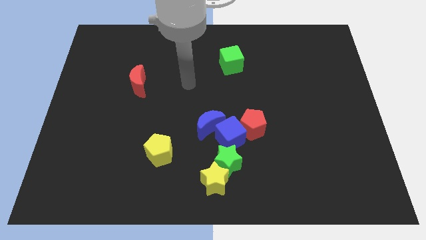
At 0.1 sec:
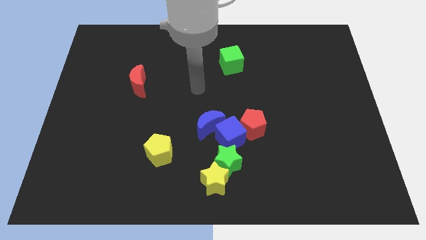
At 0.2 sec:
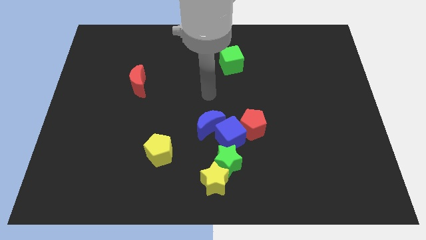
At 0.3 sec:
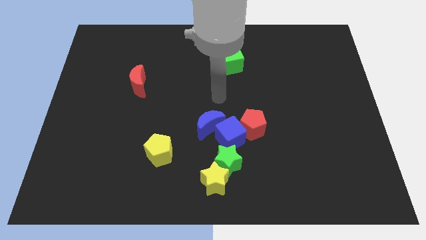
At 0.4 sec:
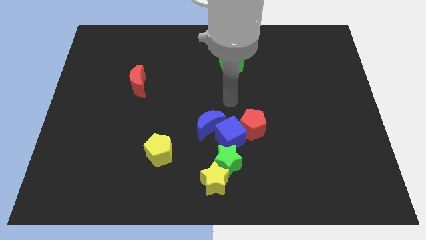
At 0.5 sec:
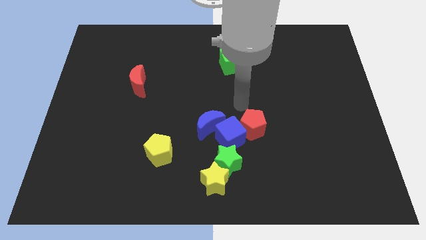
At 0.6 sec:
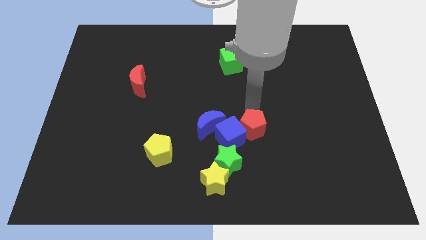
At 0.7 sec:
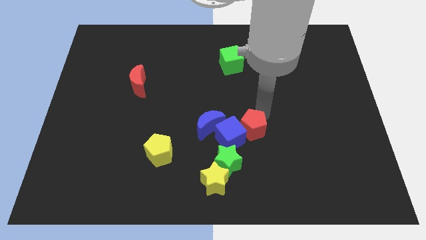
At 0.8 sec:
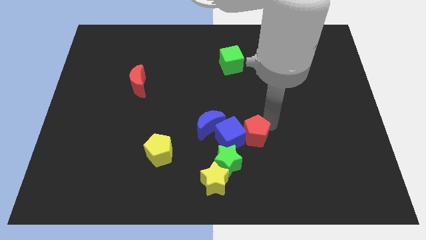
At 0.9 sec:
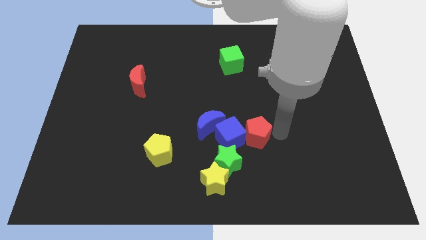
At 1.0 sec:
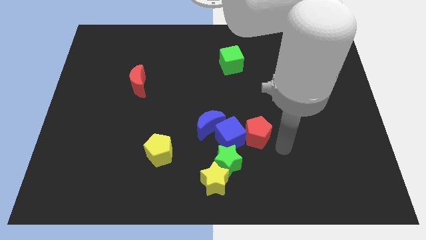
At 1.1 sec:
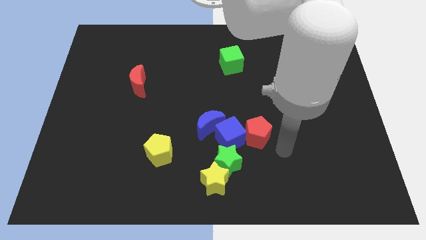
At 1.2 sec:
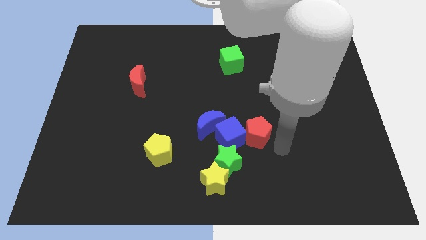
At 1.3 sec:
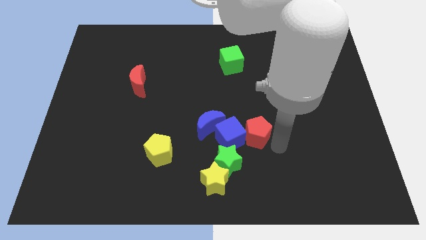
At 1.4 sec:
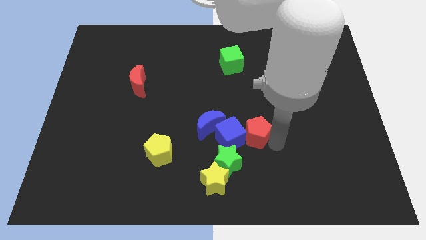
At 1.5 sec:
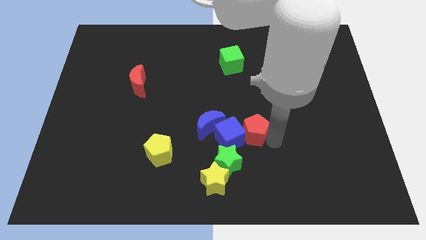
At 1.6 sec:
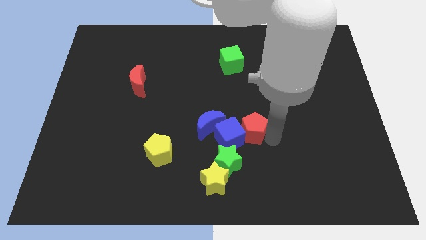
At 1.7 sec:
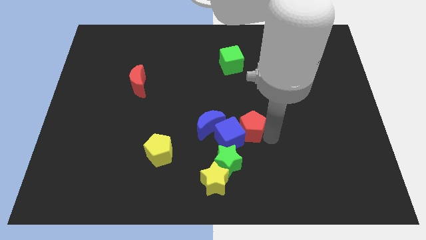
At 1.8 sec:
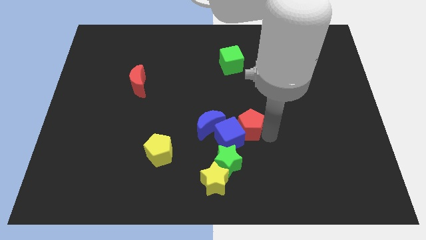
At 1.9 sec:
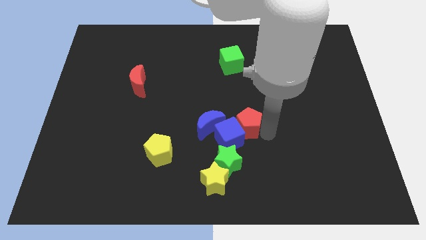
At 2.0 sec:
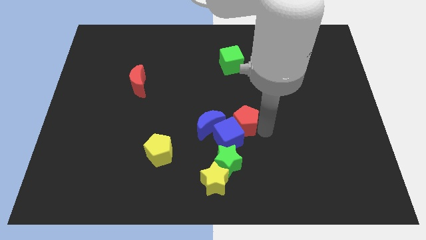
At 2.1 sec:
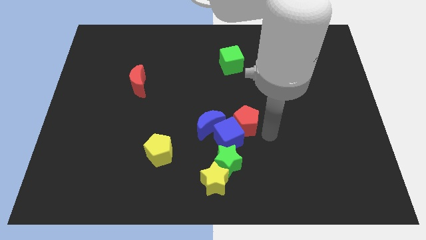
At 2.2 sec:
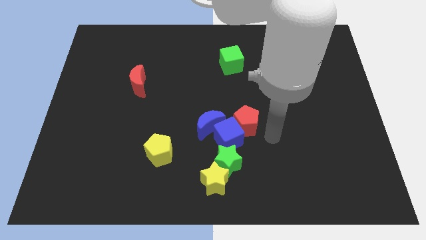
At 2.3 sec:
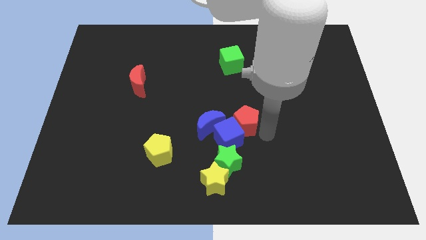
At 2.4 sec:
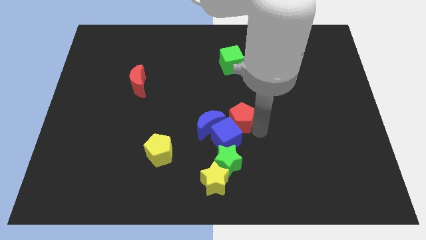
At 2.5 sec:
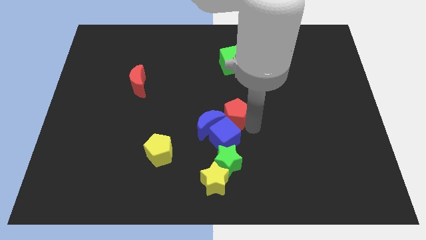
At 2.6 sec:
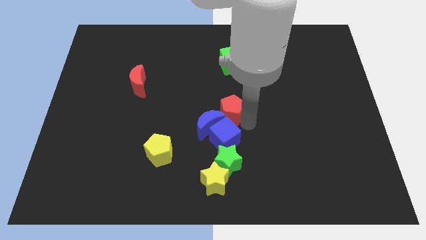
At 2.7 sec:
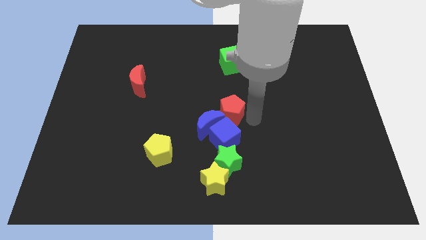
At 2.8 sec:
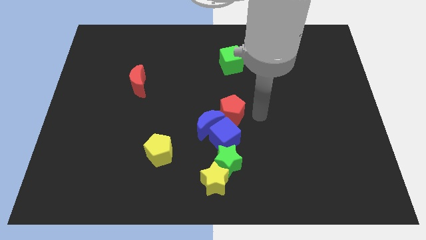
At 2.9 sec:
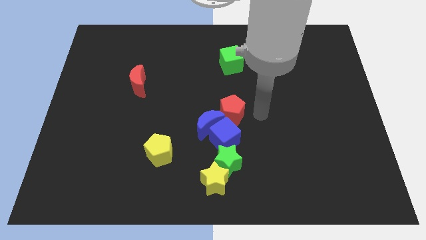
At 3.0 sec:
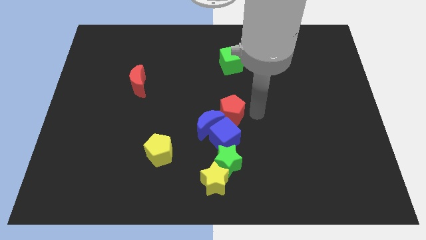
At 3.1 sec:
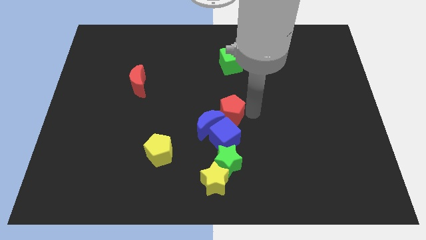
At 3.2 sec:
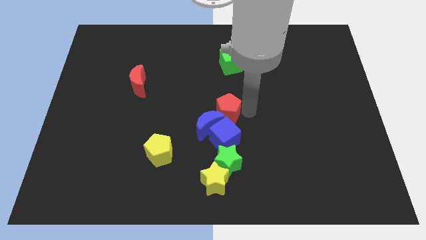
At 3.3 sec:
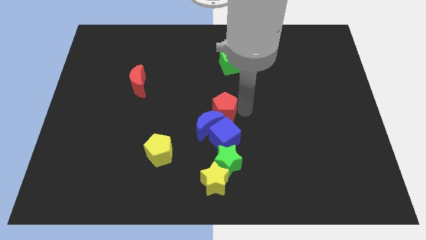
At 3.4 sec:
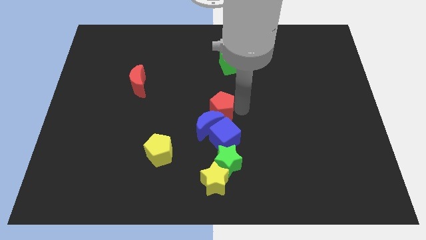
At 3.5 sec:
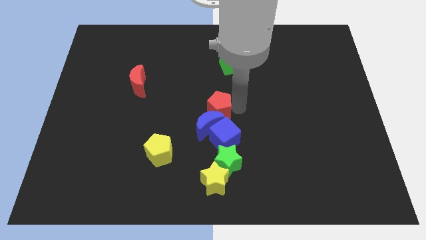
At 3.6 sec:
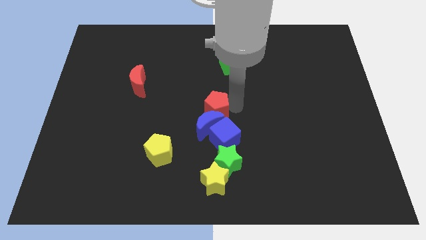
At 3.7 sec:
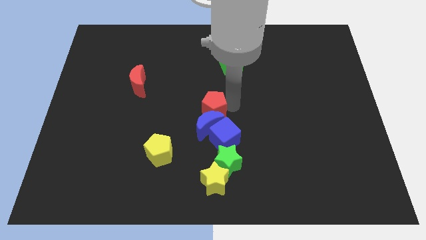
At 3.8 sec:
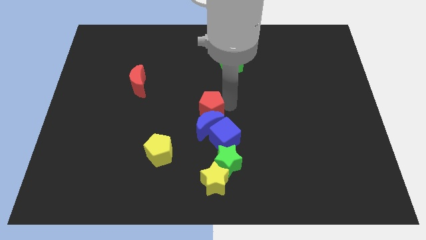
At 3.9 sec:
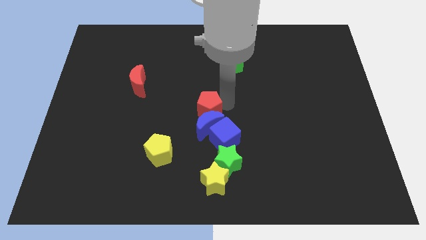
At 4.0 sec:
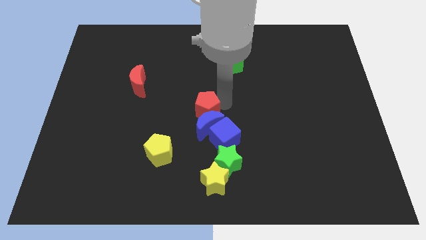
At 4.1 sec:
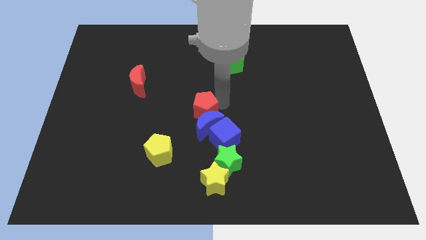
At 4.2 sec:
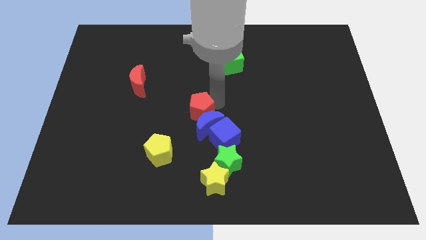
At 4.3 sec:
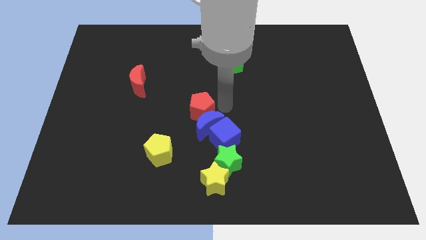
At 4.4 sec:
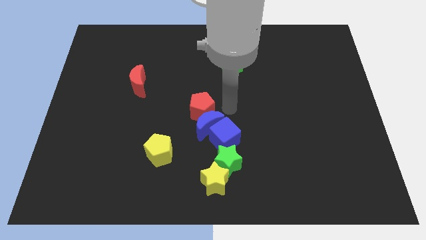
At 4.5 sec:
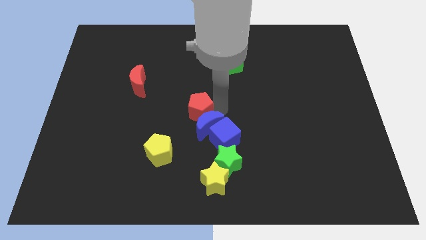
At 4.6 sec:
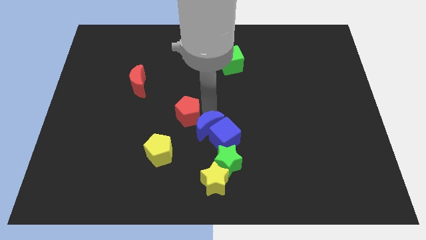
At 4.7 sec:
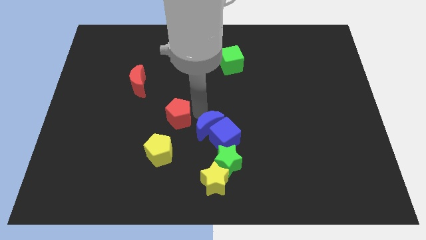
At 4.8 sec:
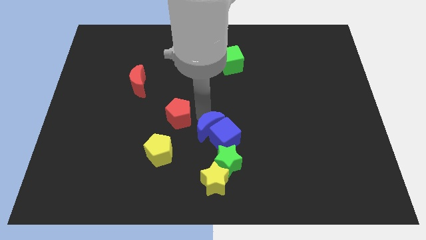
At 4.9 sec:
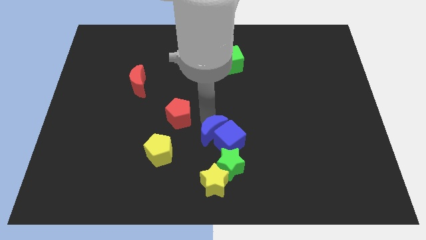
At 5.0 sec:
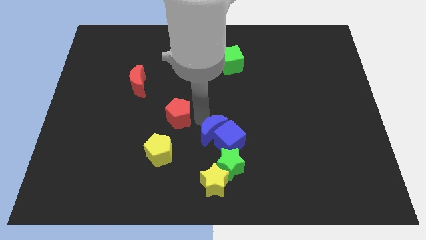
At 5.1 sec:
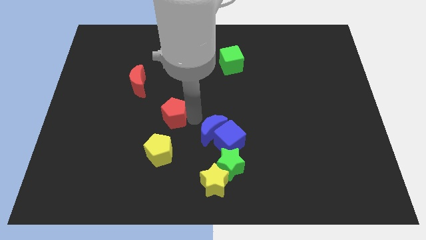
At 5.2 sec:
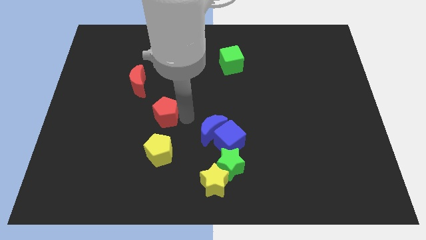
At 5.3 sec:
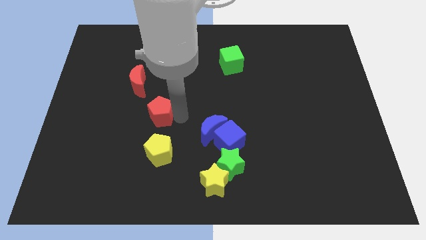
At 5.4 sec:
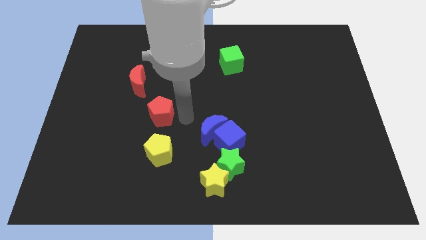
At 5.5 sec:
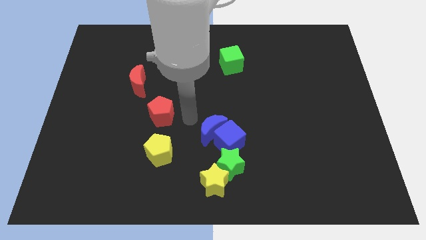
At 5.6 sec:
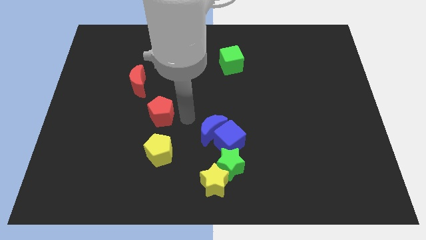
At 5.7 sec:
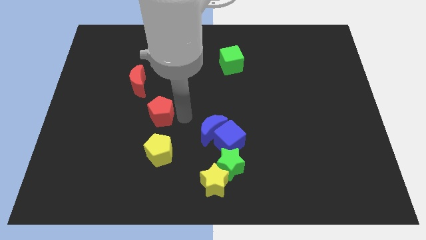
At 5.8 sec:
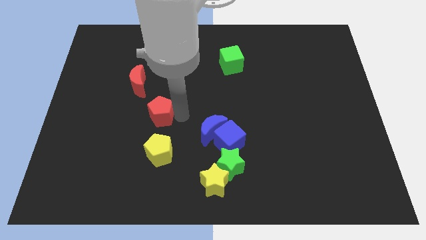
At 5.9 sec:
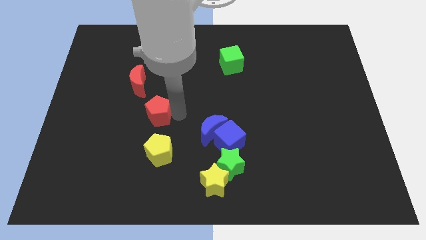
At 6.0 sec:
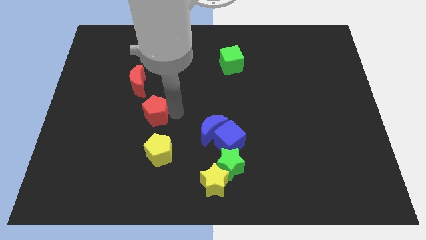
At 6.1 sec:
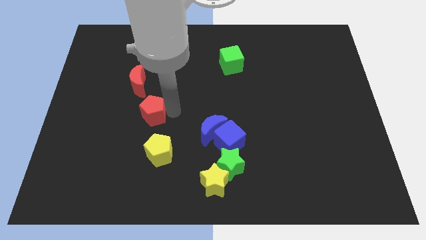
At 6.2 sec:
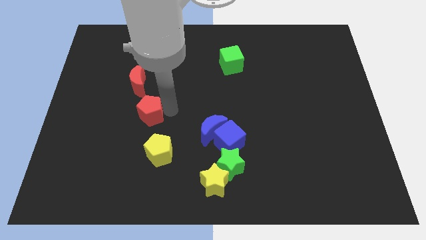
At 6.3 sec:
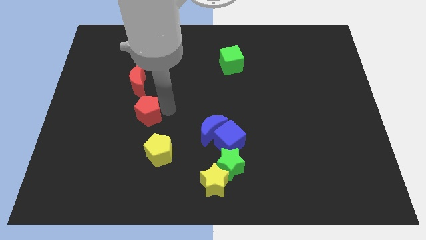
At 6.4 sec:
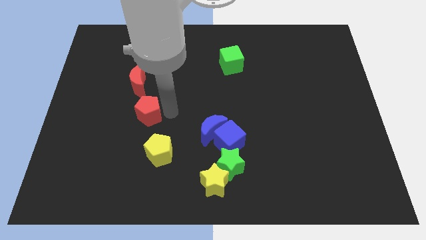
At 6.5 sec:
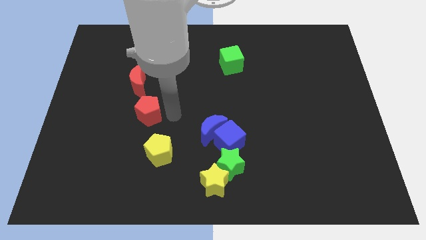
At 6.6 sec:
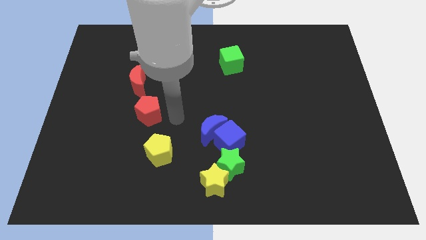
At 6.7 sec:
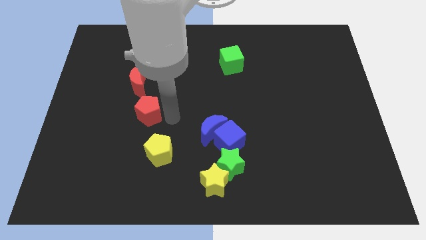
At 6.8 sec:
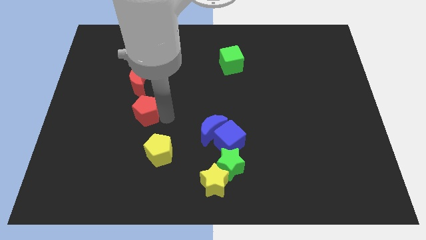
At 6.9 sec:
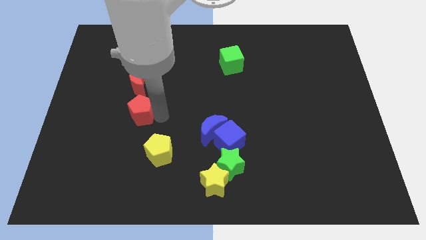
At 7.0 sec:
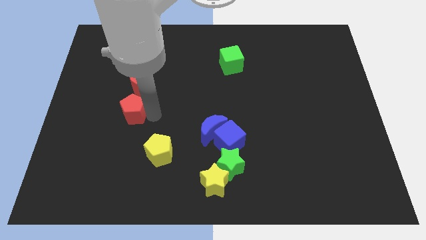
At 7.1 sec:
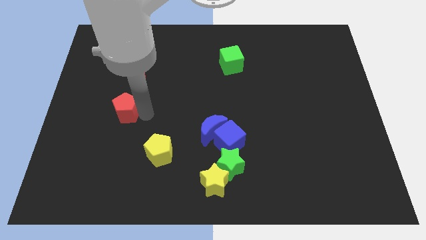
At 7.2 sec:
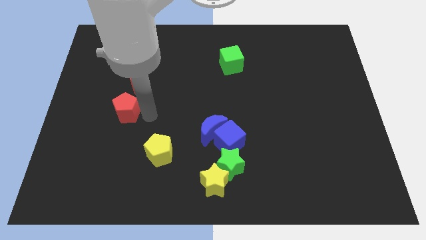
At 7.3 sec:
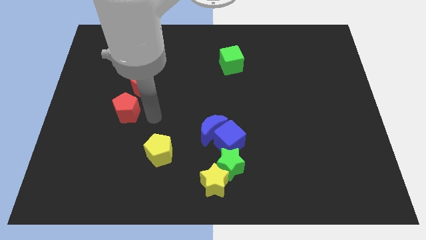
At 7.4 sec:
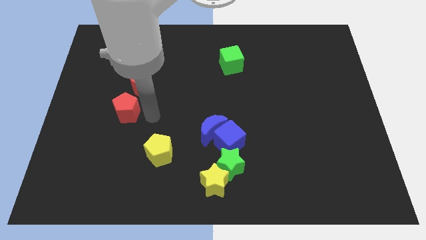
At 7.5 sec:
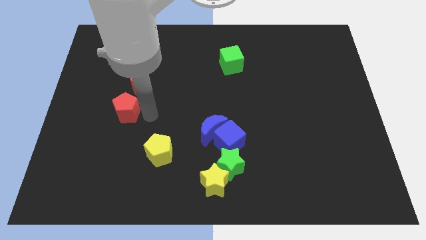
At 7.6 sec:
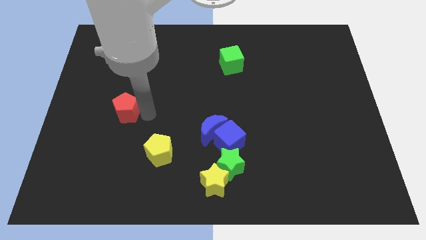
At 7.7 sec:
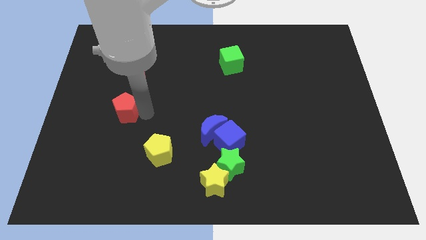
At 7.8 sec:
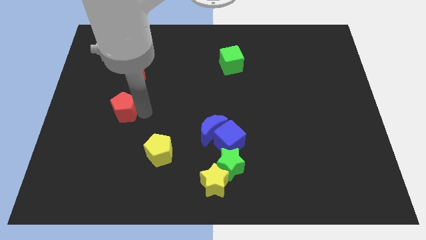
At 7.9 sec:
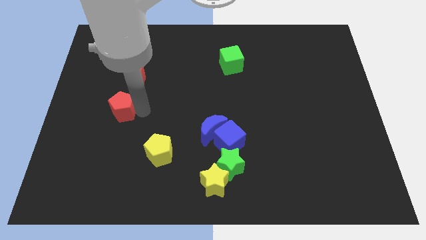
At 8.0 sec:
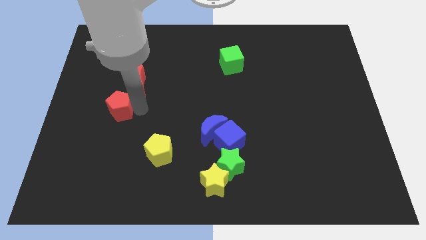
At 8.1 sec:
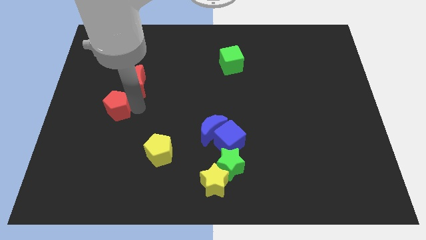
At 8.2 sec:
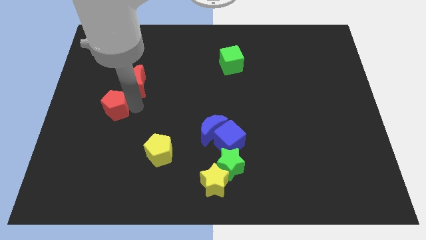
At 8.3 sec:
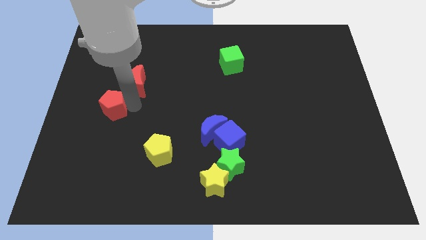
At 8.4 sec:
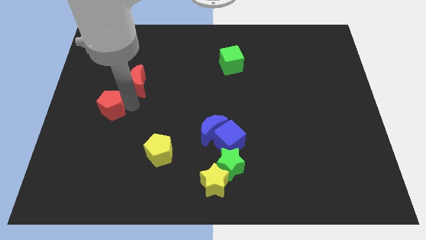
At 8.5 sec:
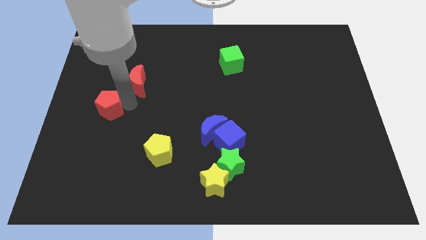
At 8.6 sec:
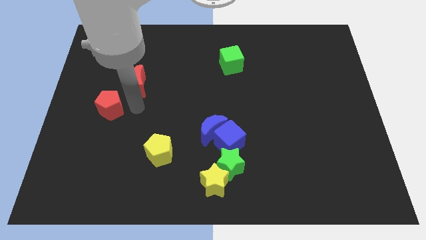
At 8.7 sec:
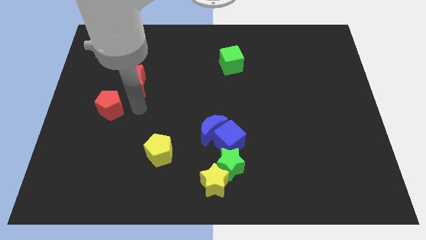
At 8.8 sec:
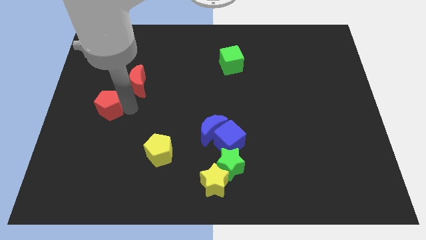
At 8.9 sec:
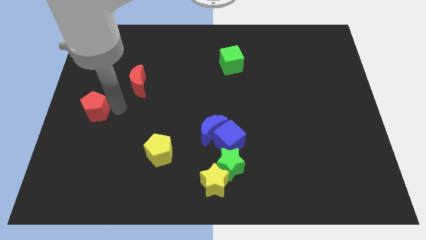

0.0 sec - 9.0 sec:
slide the red pentagon to the left side
